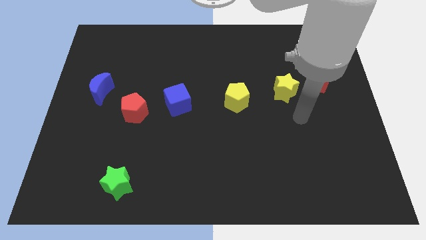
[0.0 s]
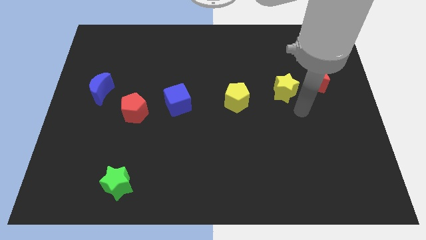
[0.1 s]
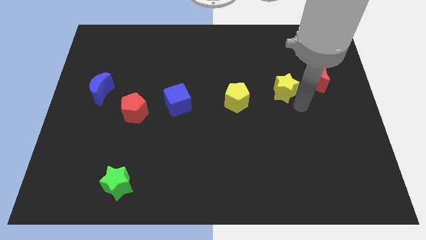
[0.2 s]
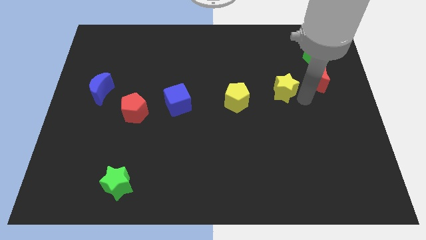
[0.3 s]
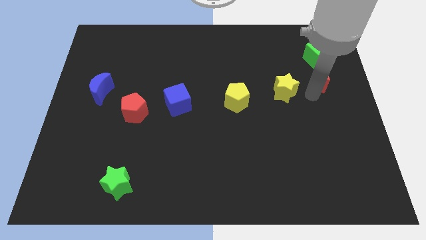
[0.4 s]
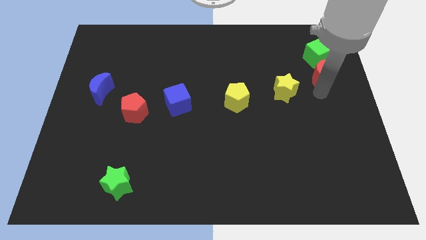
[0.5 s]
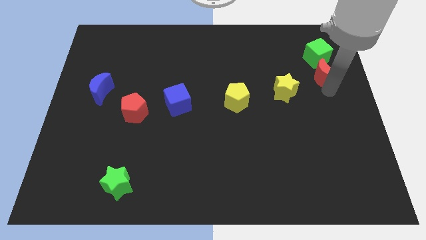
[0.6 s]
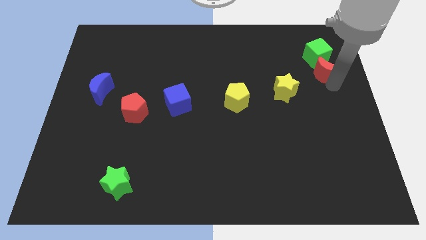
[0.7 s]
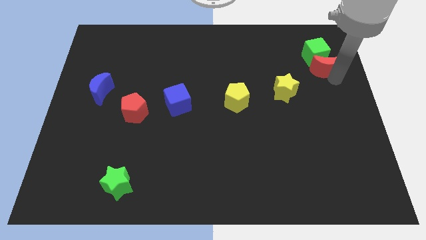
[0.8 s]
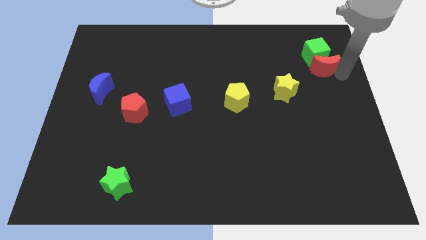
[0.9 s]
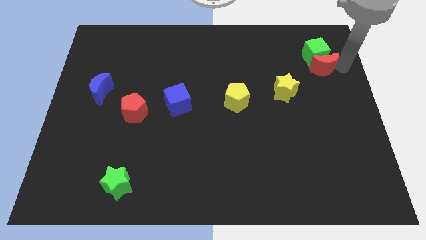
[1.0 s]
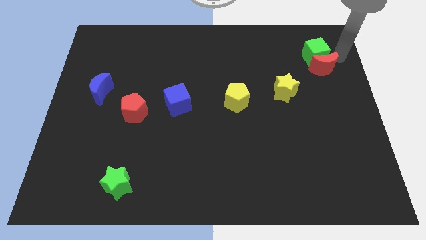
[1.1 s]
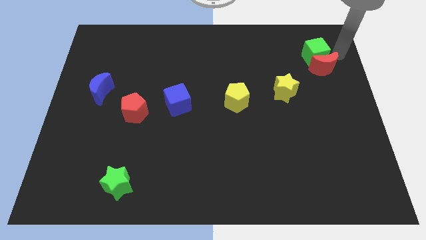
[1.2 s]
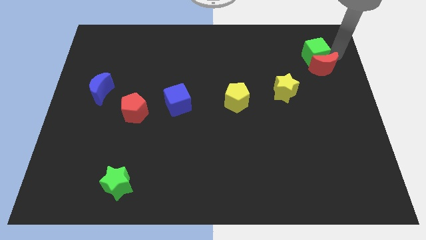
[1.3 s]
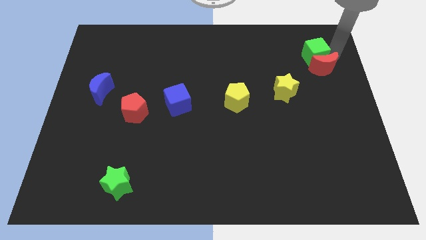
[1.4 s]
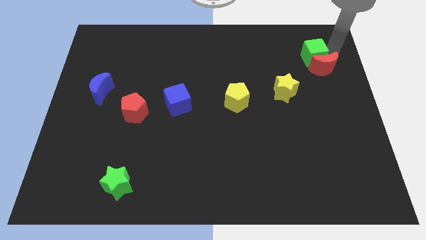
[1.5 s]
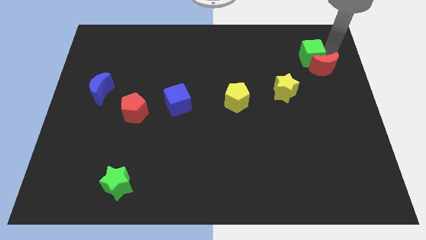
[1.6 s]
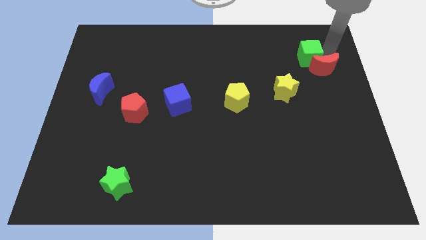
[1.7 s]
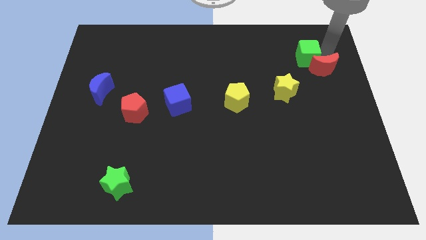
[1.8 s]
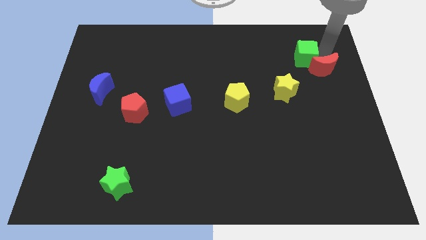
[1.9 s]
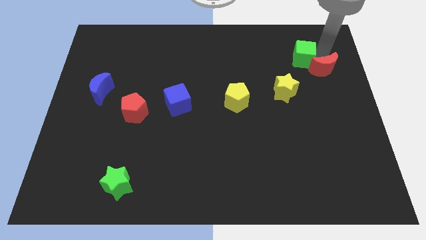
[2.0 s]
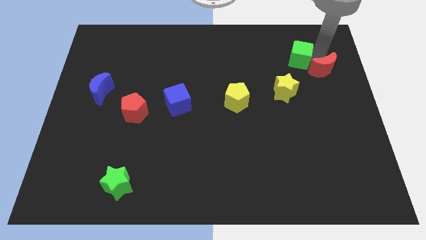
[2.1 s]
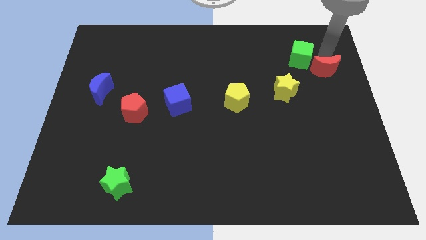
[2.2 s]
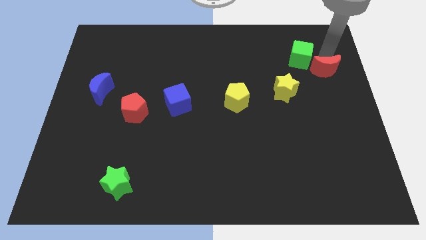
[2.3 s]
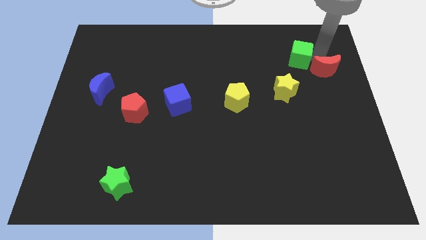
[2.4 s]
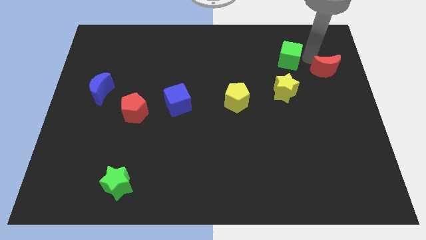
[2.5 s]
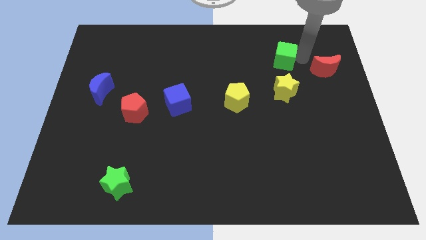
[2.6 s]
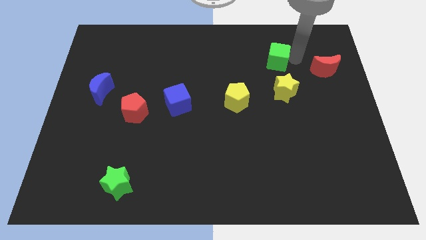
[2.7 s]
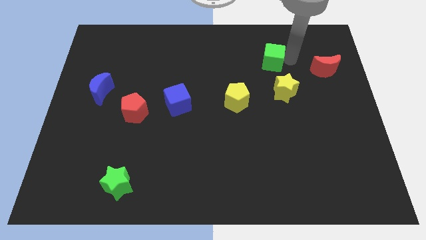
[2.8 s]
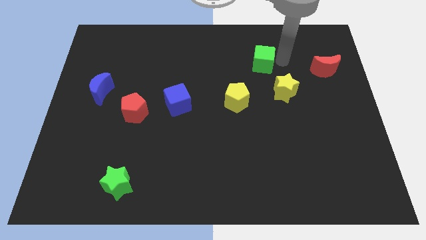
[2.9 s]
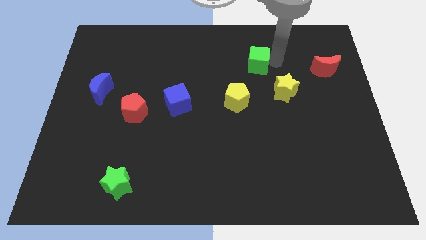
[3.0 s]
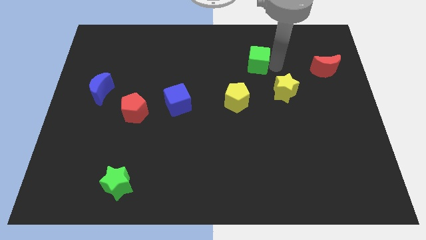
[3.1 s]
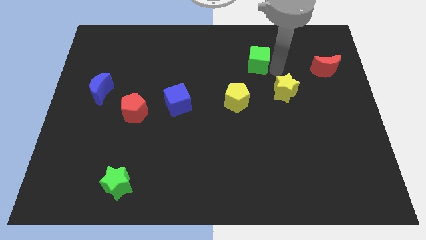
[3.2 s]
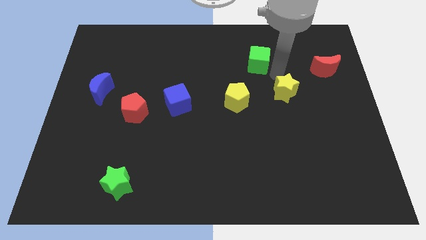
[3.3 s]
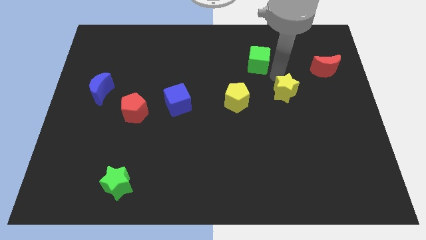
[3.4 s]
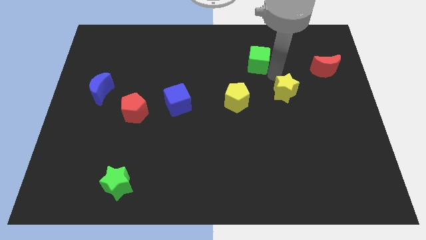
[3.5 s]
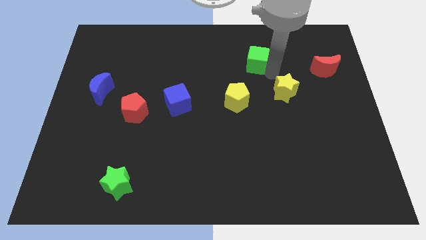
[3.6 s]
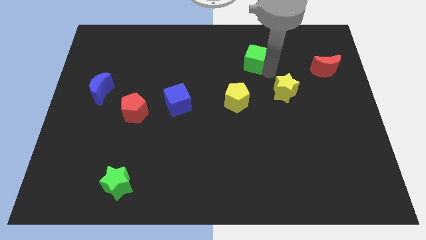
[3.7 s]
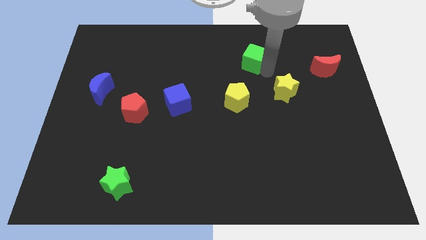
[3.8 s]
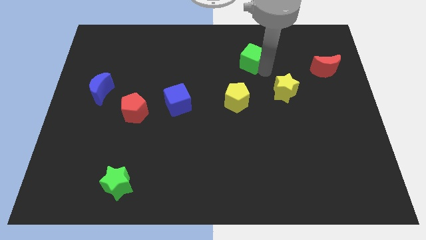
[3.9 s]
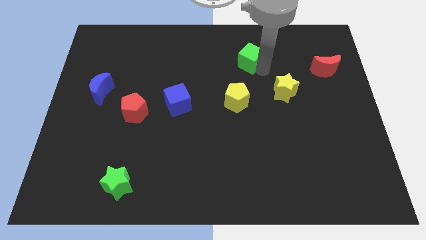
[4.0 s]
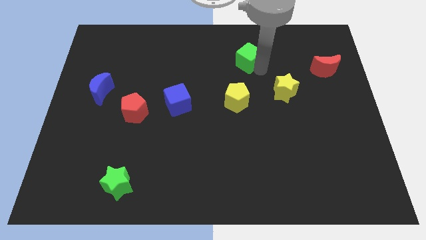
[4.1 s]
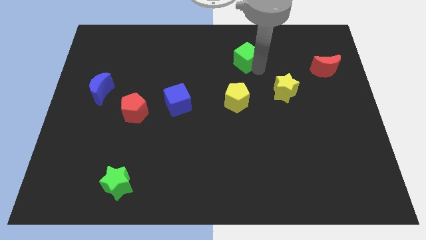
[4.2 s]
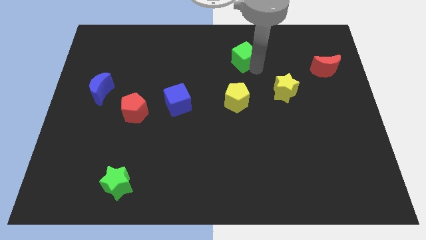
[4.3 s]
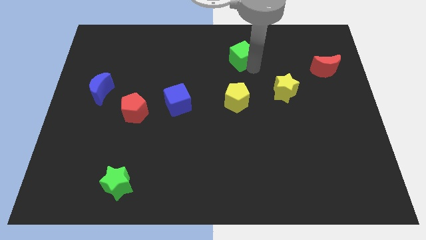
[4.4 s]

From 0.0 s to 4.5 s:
push the green cube left

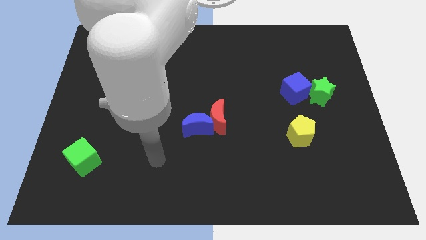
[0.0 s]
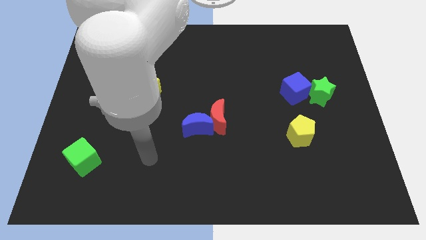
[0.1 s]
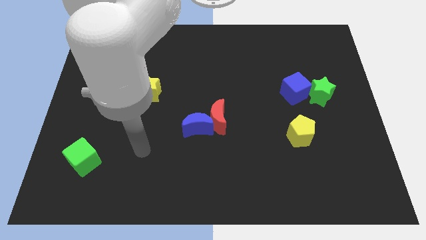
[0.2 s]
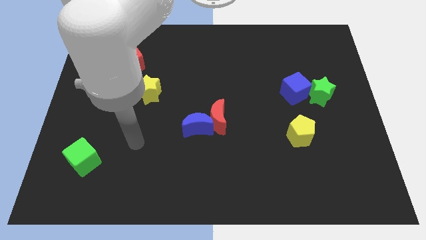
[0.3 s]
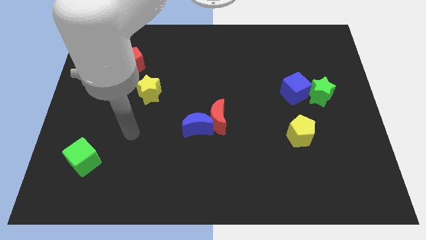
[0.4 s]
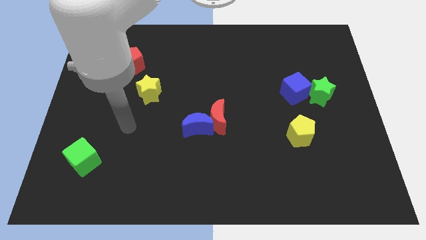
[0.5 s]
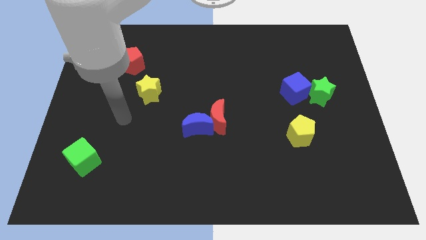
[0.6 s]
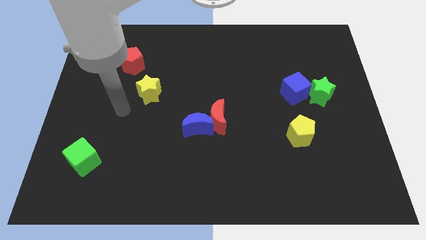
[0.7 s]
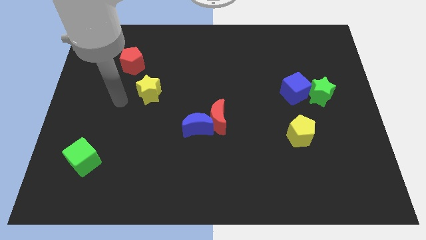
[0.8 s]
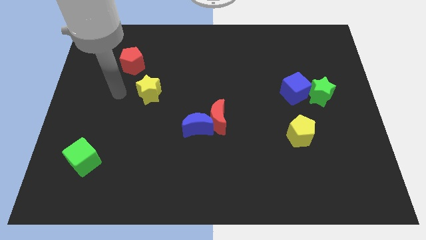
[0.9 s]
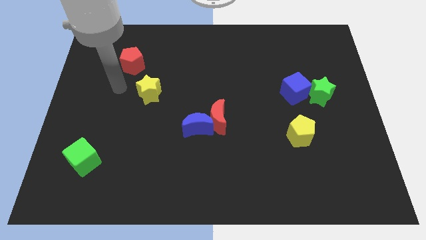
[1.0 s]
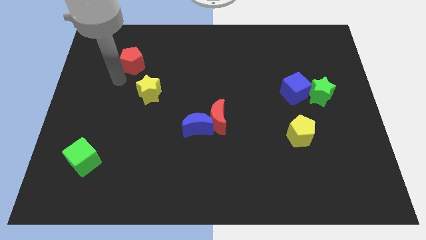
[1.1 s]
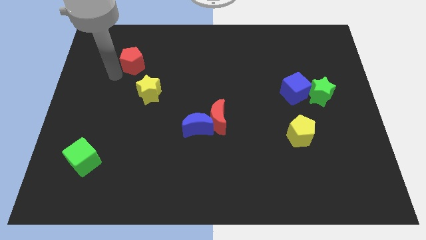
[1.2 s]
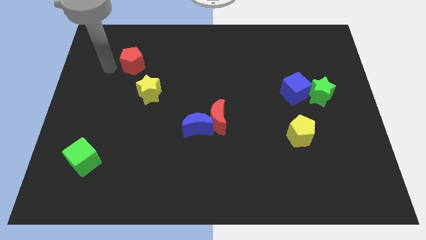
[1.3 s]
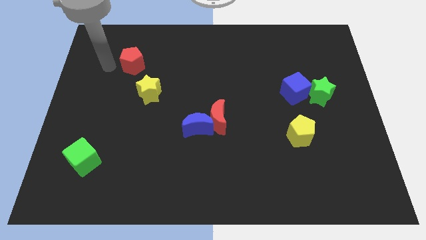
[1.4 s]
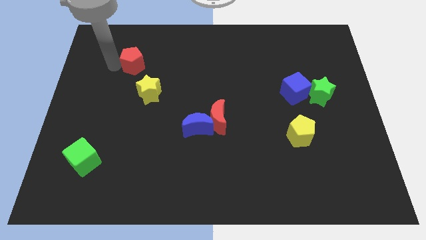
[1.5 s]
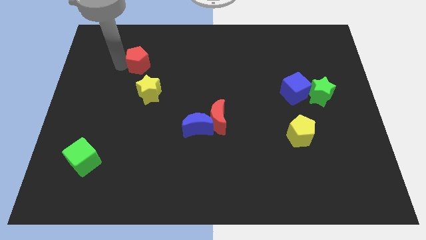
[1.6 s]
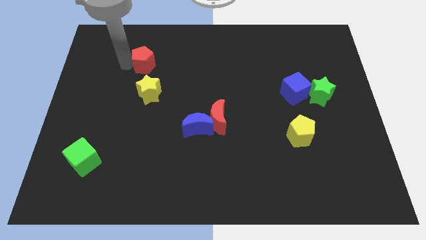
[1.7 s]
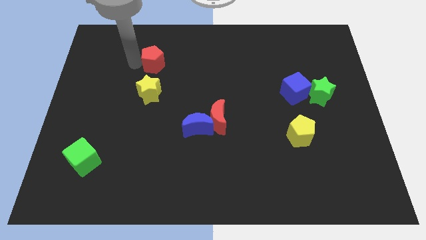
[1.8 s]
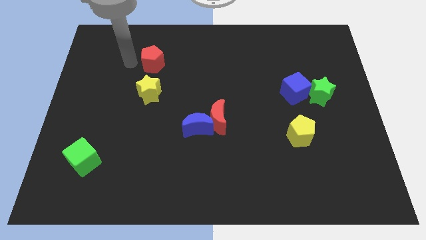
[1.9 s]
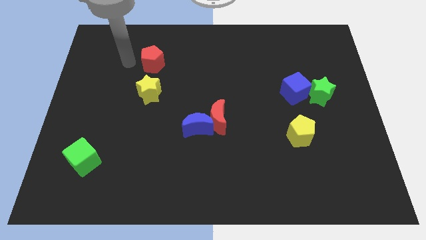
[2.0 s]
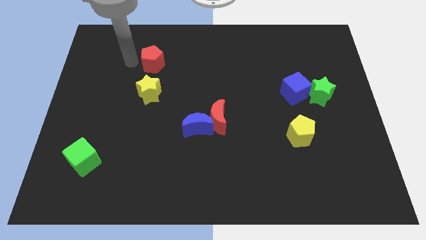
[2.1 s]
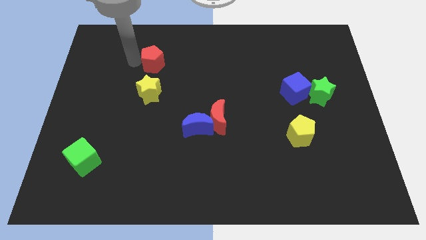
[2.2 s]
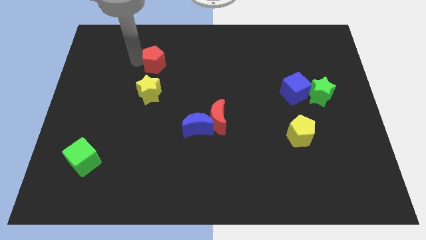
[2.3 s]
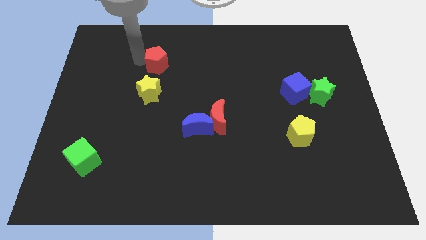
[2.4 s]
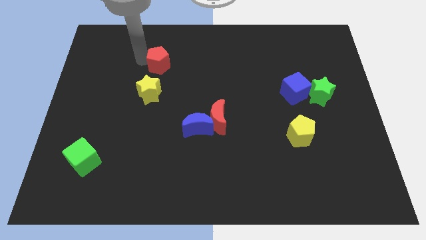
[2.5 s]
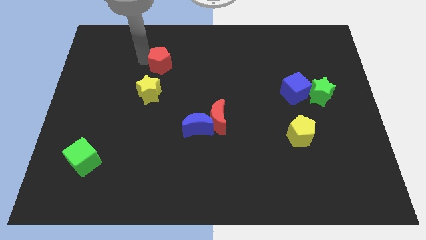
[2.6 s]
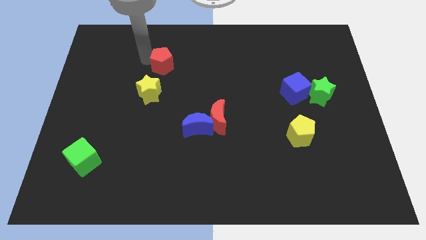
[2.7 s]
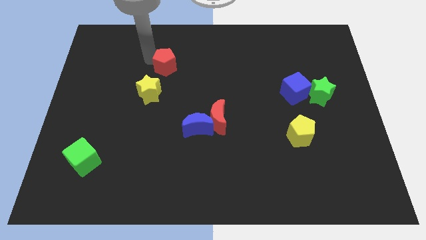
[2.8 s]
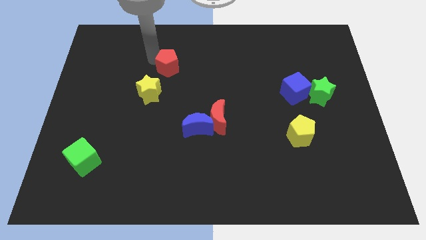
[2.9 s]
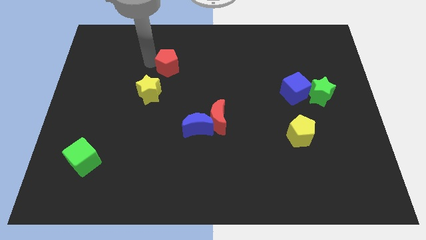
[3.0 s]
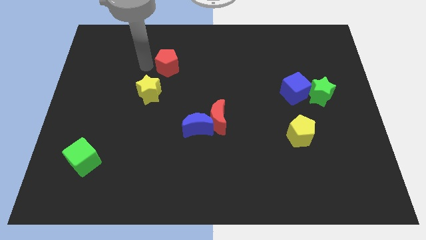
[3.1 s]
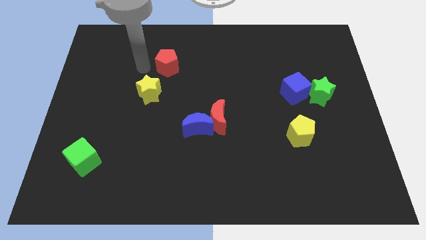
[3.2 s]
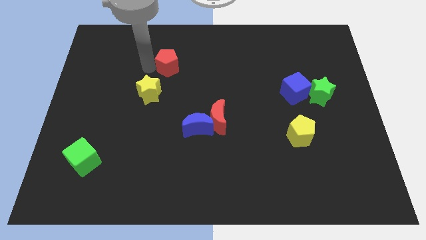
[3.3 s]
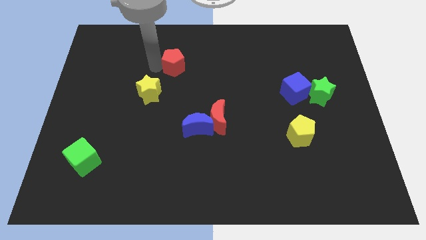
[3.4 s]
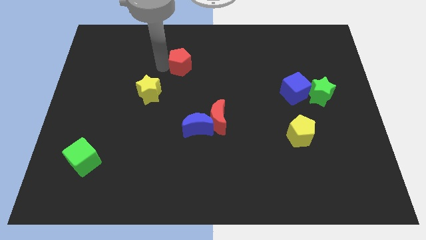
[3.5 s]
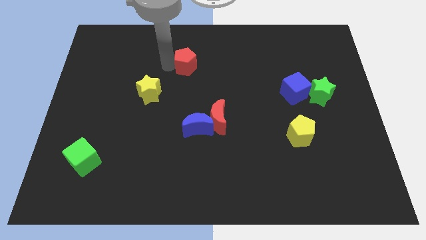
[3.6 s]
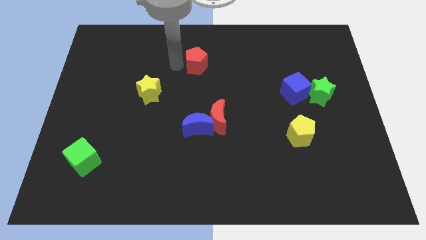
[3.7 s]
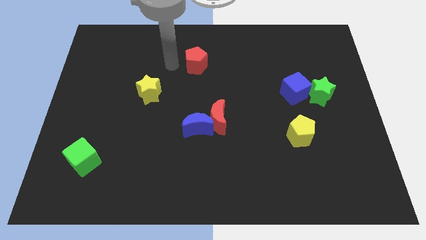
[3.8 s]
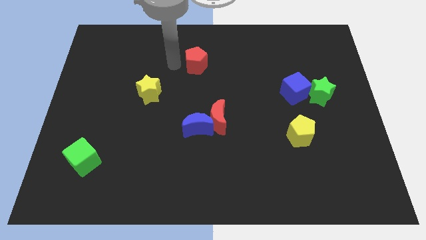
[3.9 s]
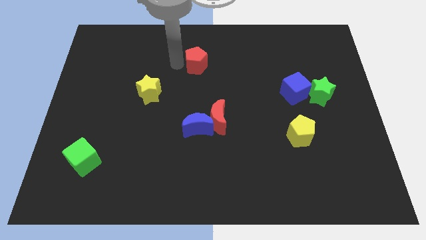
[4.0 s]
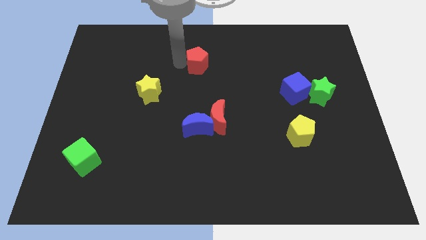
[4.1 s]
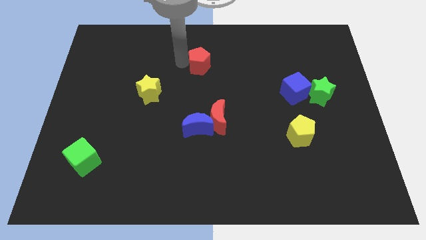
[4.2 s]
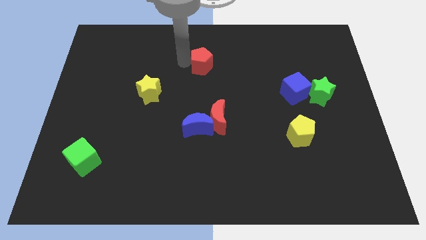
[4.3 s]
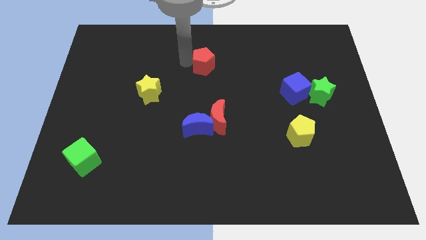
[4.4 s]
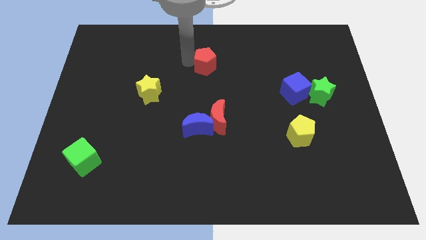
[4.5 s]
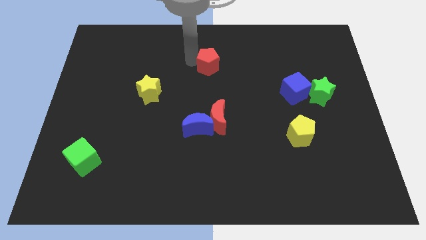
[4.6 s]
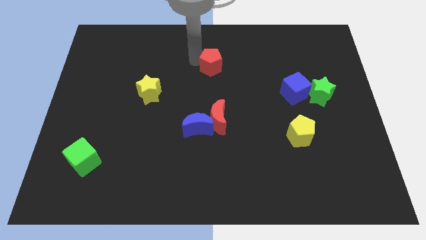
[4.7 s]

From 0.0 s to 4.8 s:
slide the red pentagon to the right
